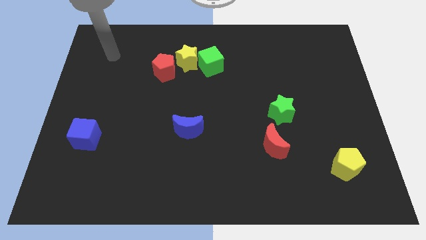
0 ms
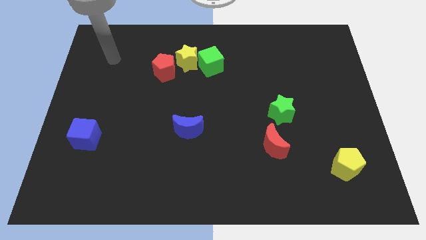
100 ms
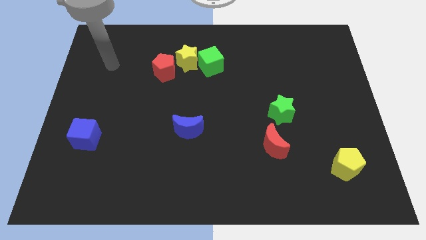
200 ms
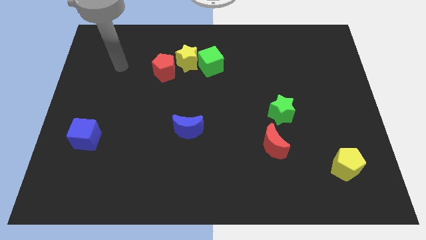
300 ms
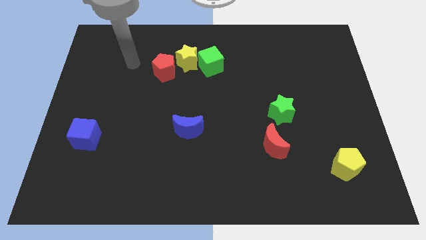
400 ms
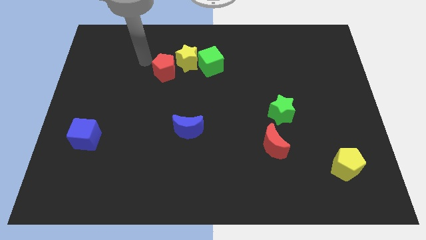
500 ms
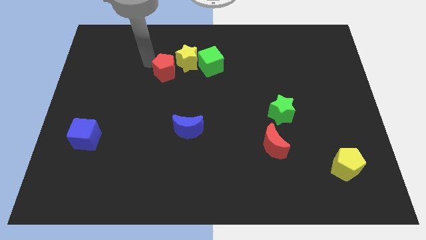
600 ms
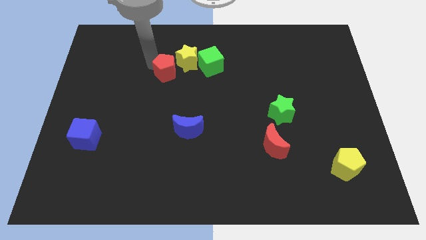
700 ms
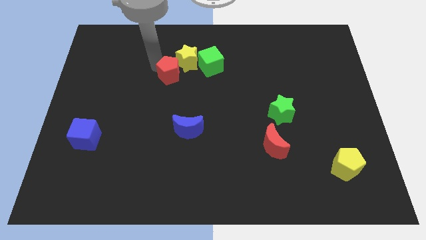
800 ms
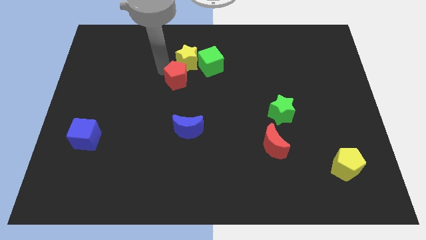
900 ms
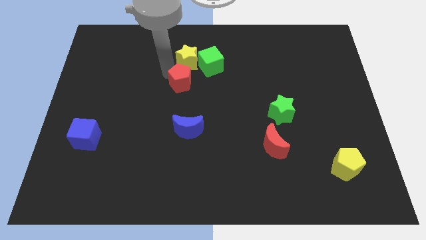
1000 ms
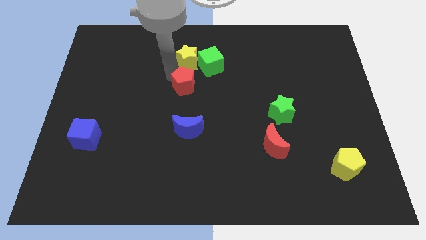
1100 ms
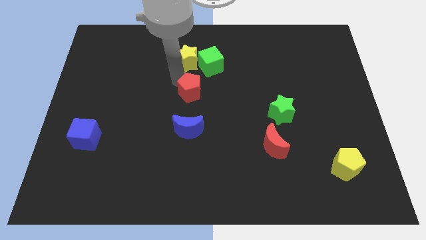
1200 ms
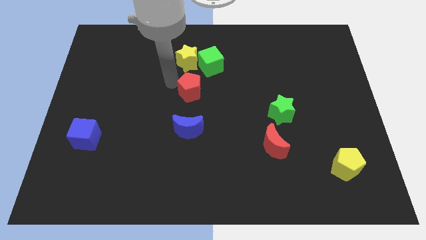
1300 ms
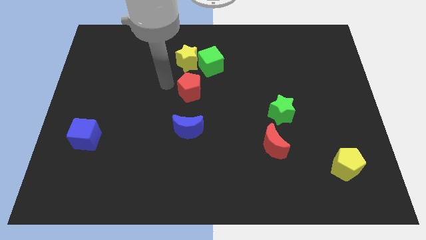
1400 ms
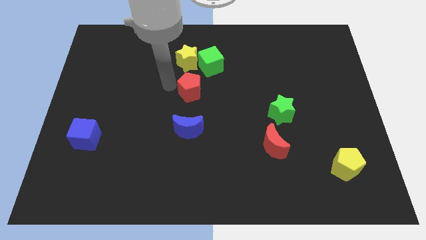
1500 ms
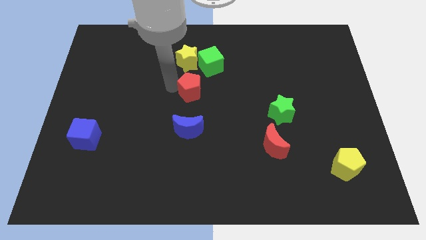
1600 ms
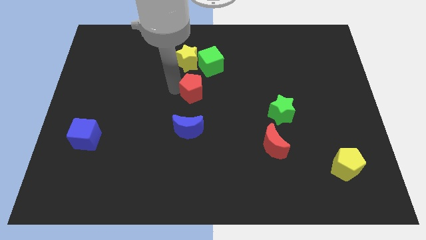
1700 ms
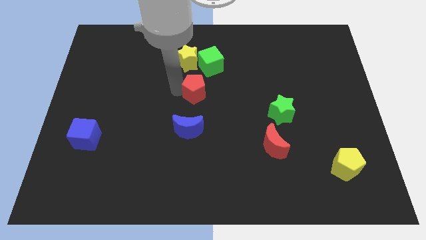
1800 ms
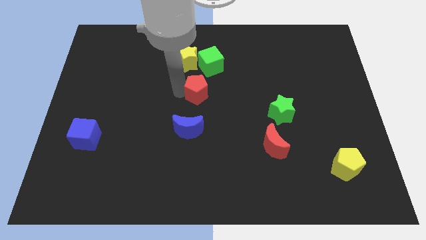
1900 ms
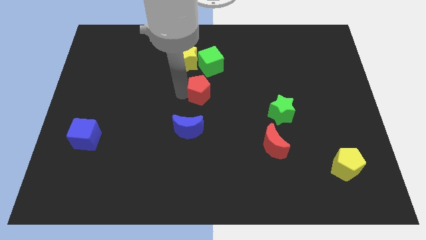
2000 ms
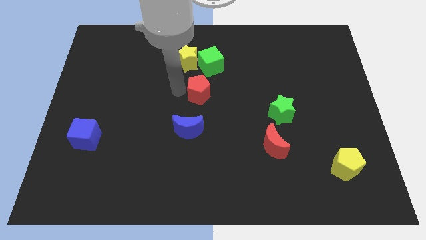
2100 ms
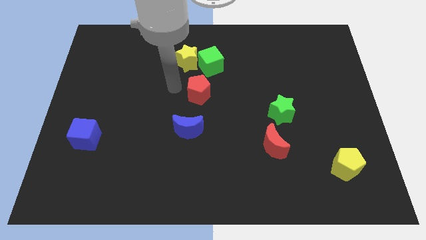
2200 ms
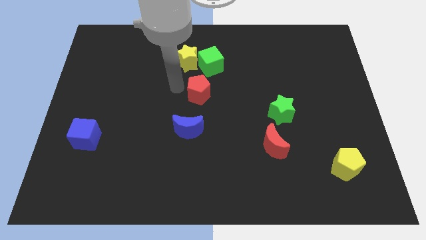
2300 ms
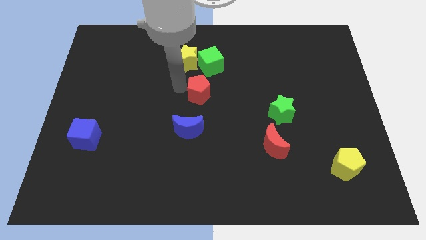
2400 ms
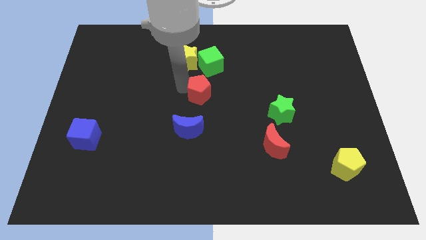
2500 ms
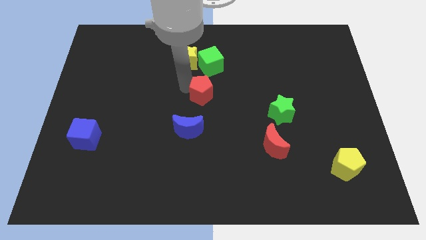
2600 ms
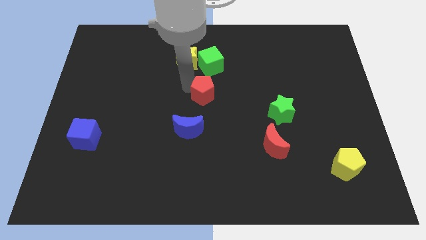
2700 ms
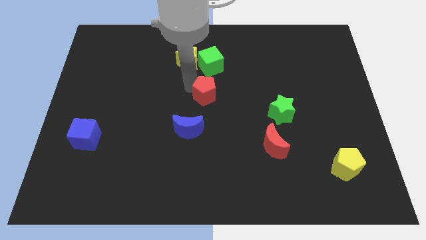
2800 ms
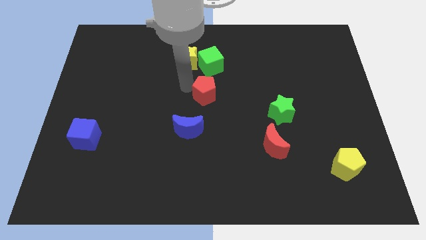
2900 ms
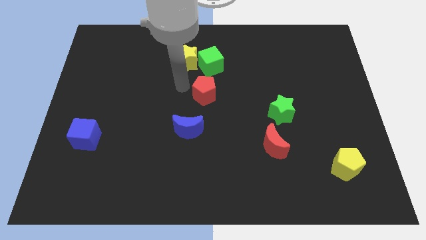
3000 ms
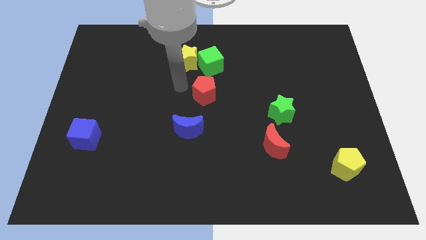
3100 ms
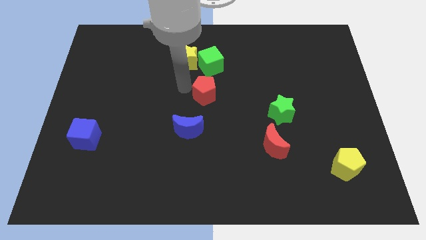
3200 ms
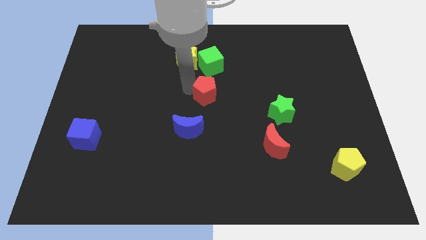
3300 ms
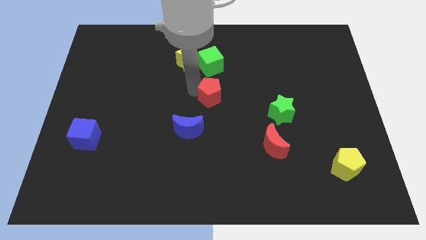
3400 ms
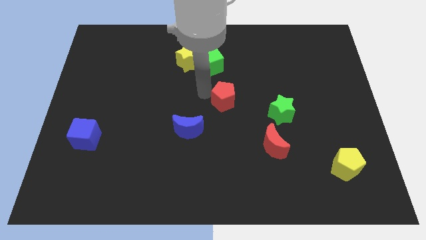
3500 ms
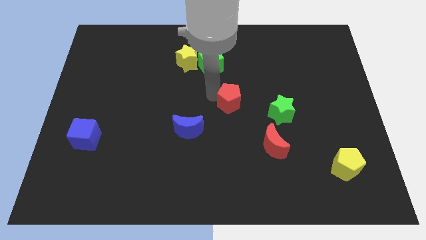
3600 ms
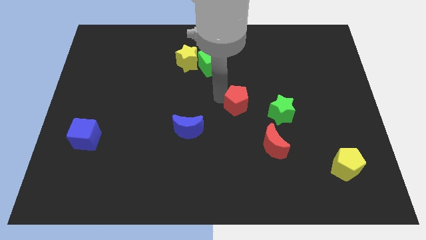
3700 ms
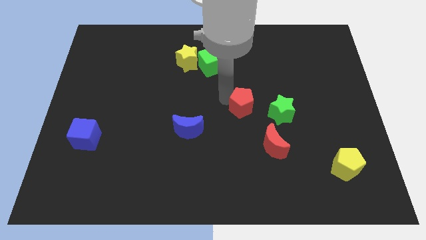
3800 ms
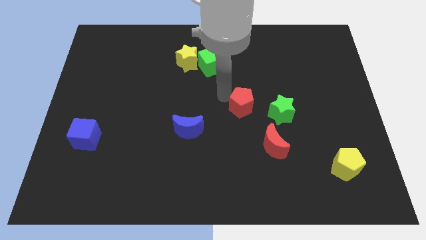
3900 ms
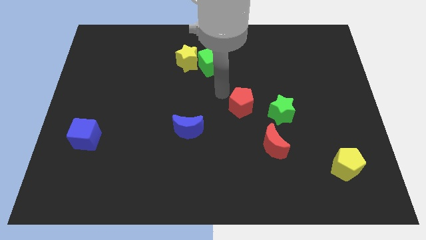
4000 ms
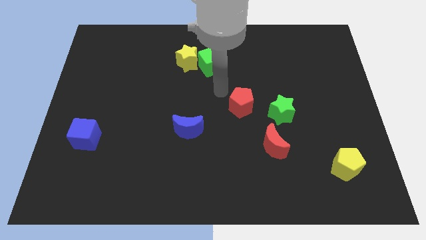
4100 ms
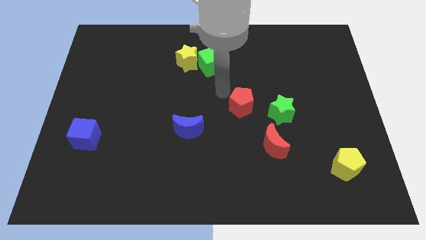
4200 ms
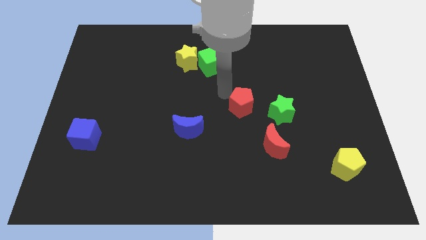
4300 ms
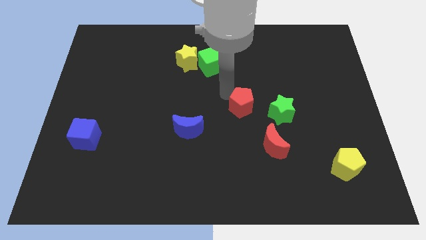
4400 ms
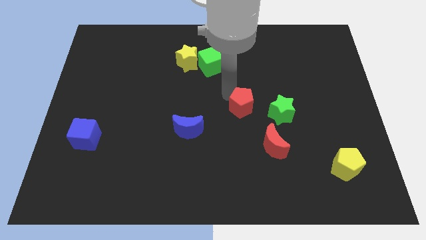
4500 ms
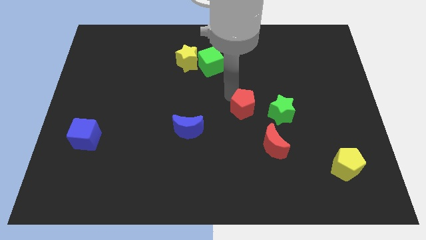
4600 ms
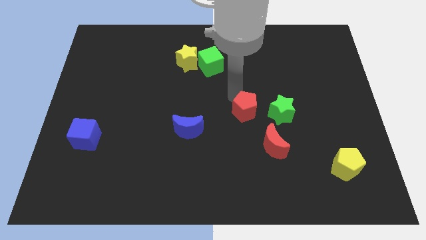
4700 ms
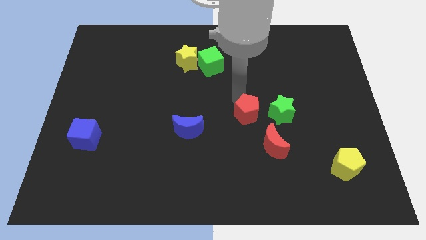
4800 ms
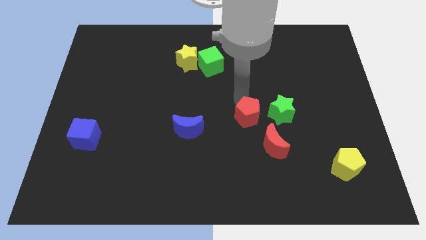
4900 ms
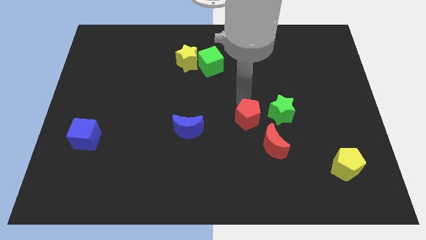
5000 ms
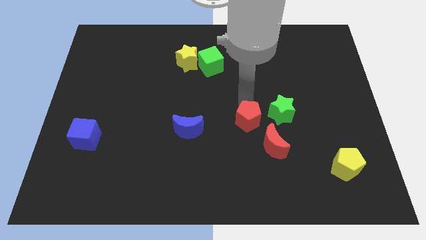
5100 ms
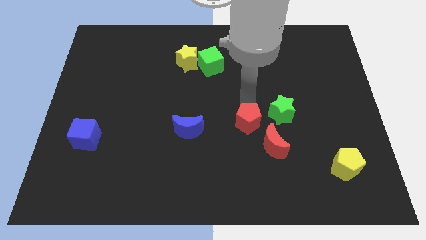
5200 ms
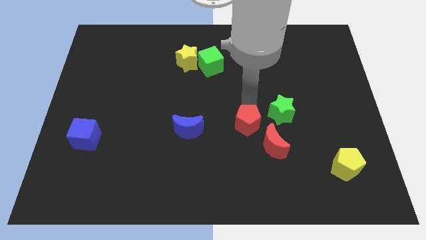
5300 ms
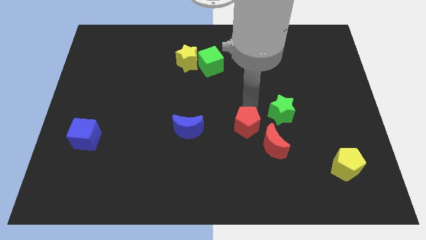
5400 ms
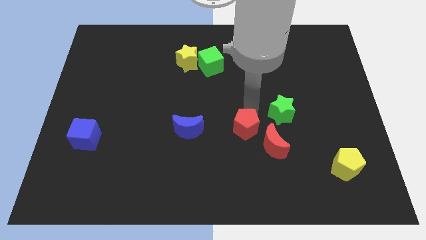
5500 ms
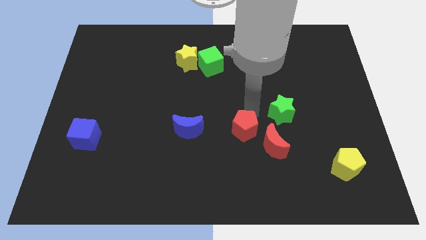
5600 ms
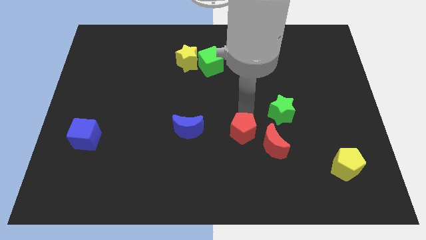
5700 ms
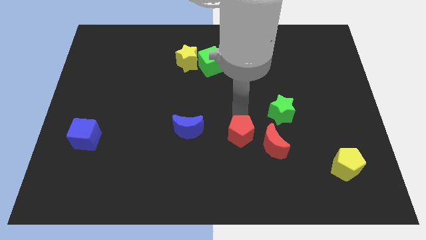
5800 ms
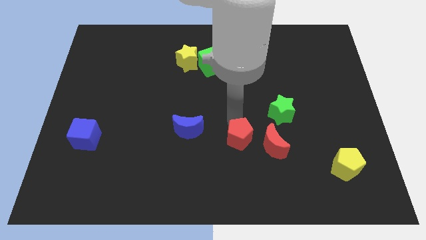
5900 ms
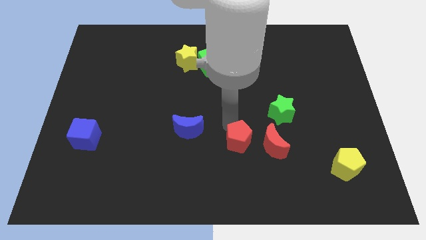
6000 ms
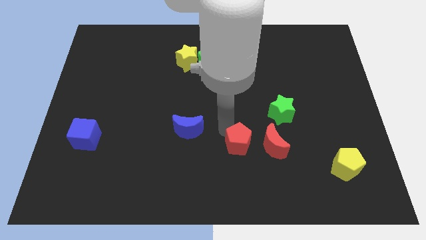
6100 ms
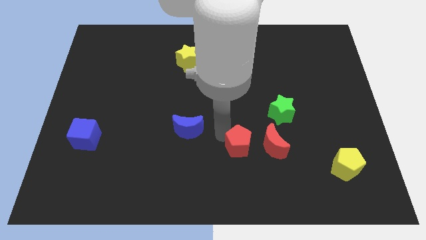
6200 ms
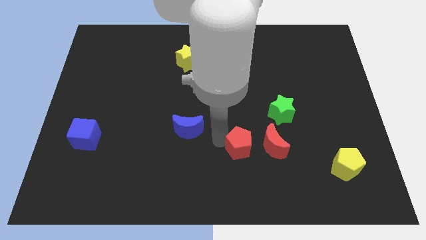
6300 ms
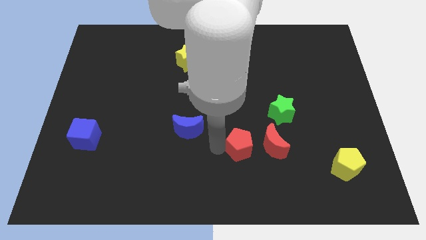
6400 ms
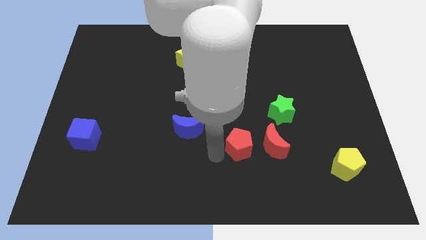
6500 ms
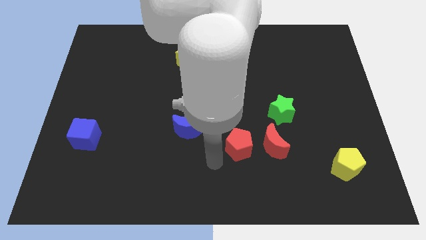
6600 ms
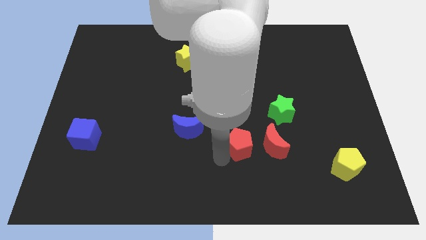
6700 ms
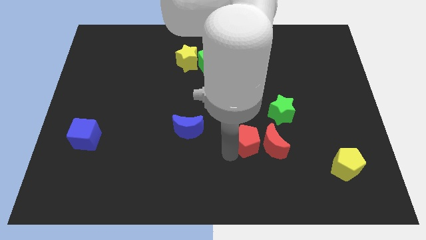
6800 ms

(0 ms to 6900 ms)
slide the red pentagon to the red moon

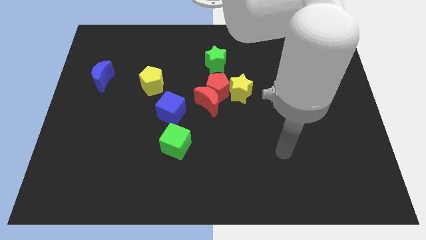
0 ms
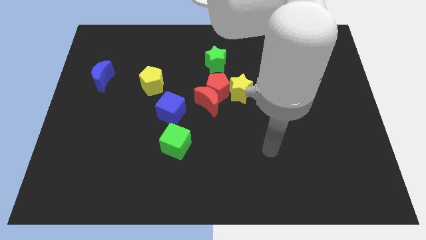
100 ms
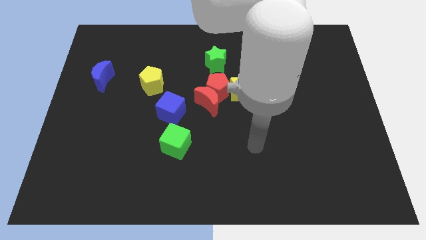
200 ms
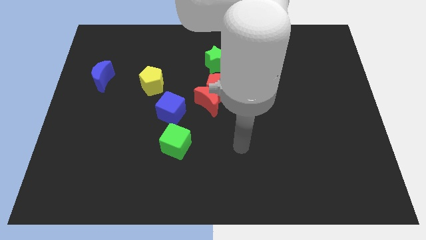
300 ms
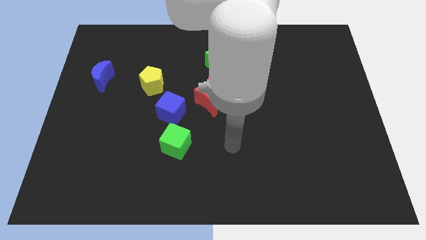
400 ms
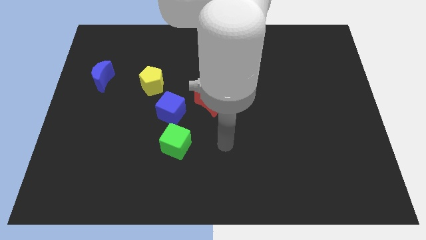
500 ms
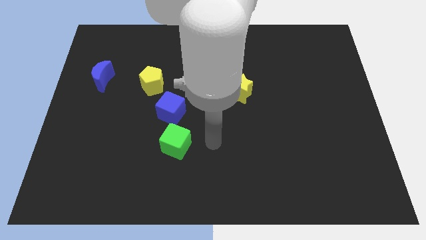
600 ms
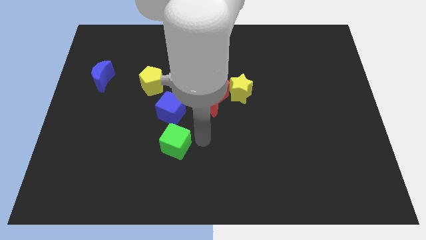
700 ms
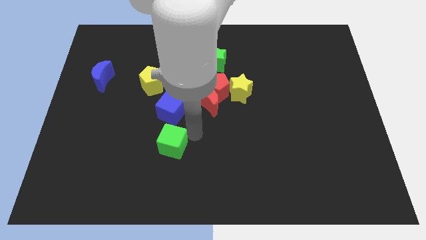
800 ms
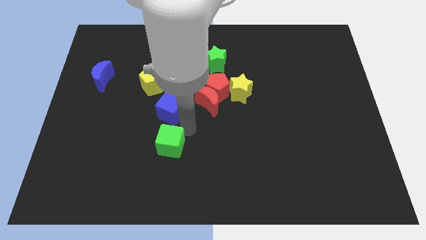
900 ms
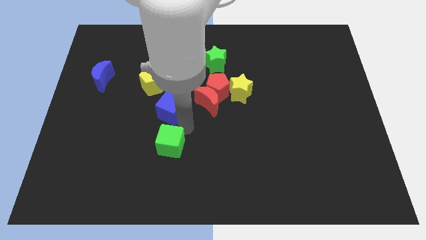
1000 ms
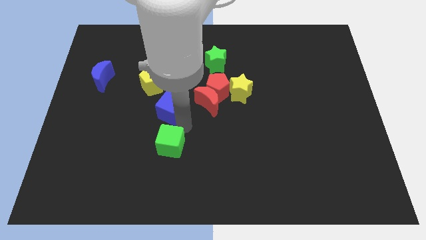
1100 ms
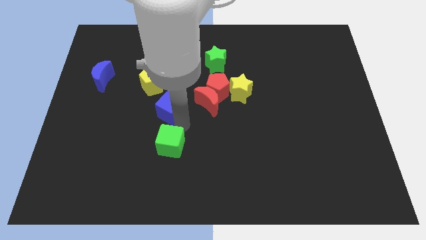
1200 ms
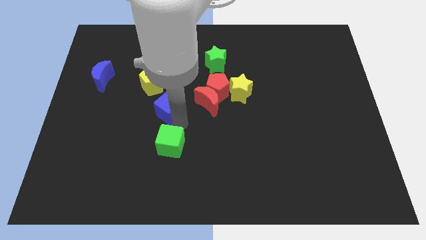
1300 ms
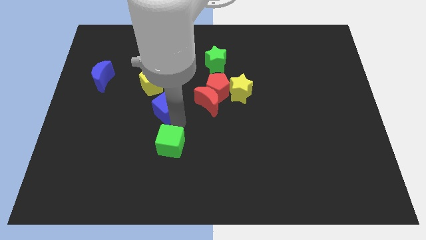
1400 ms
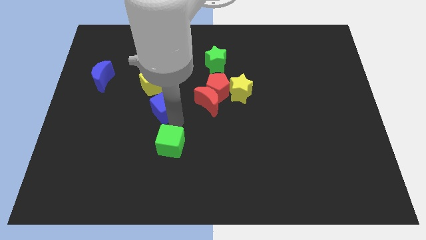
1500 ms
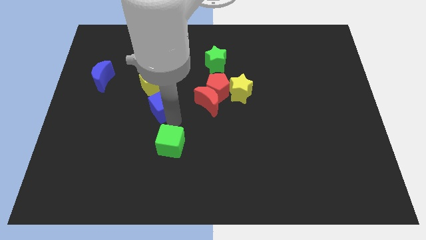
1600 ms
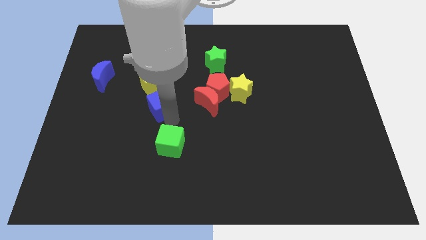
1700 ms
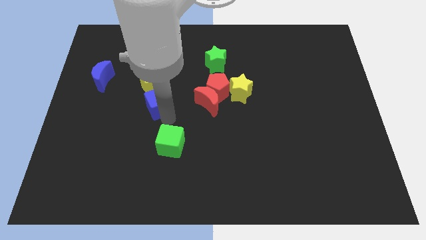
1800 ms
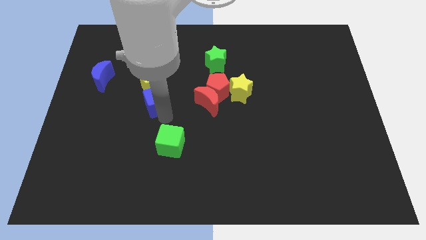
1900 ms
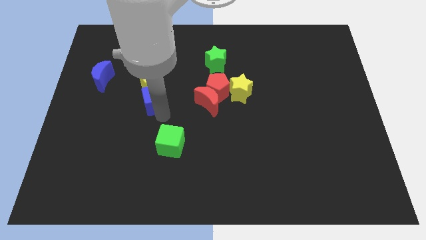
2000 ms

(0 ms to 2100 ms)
slide the blue cube close to the yellow pentagon
